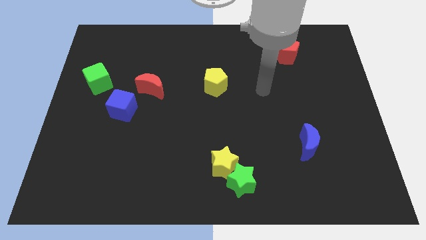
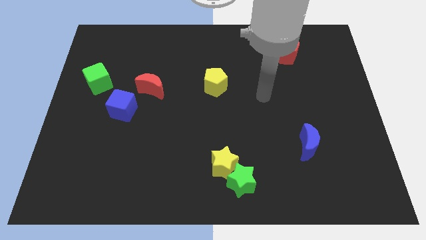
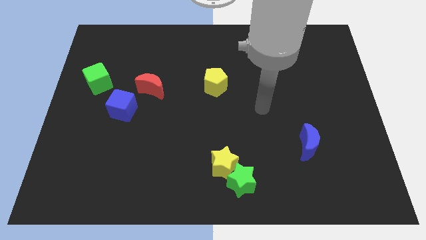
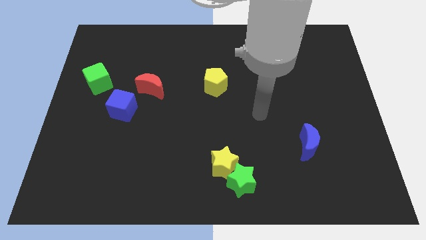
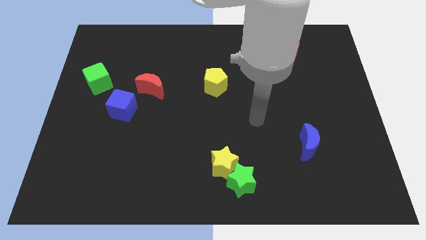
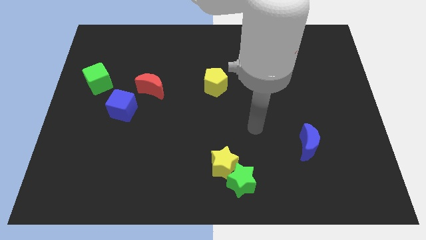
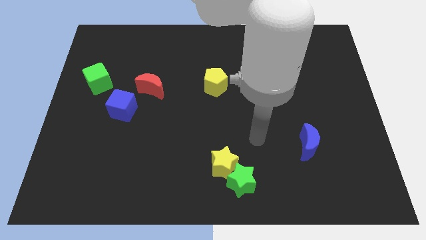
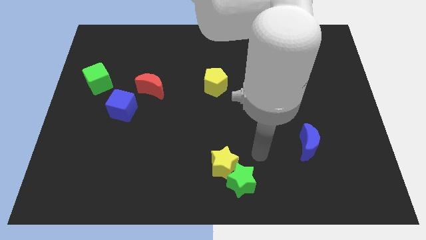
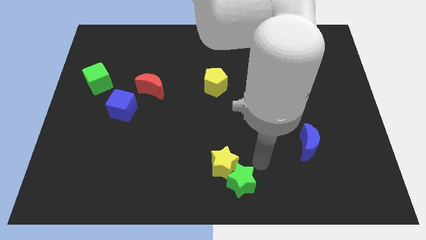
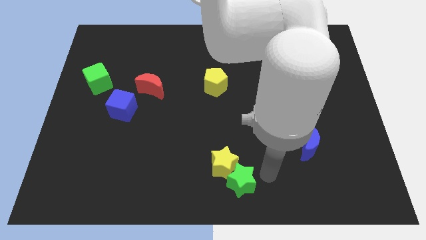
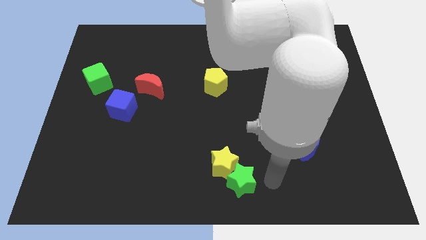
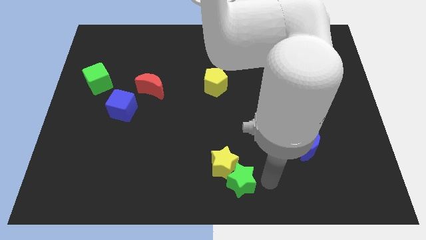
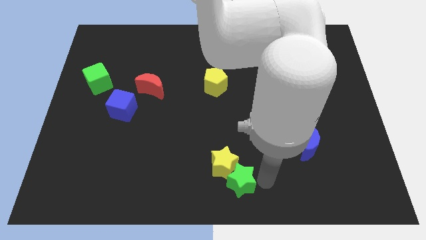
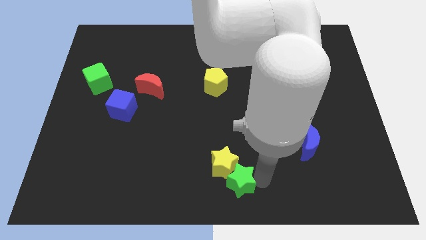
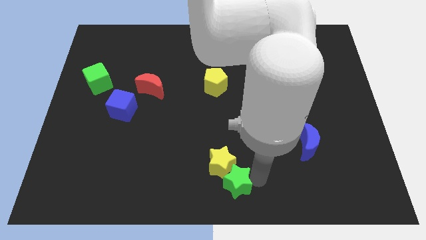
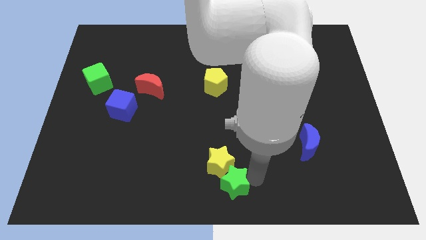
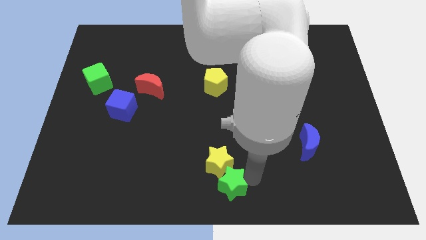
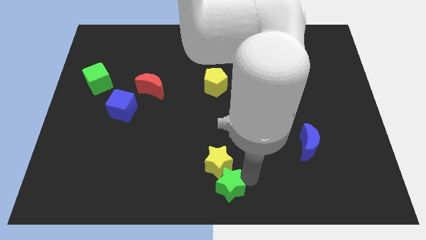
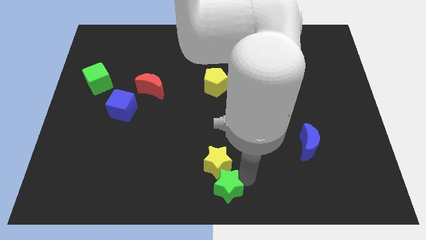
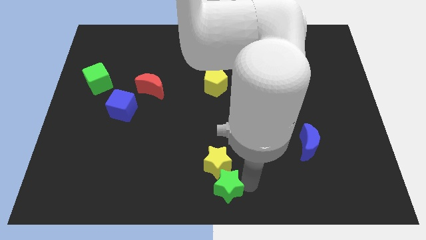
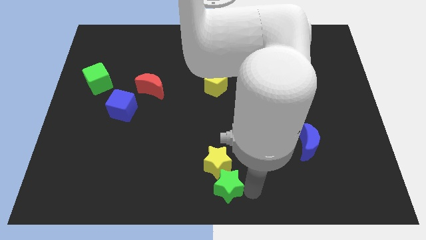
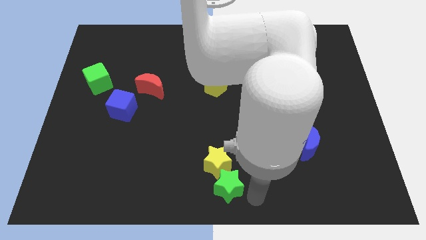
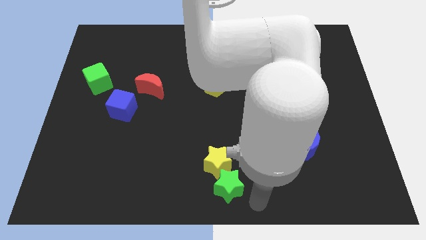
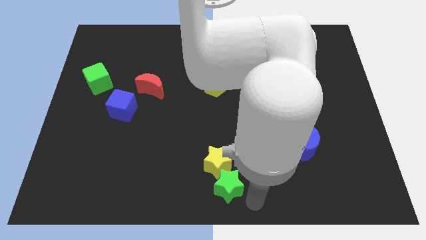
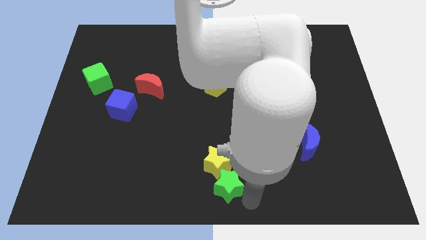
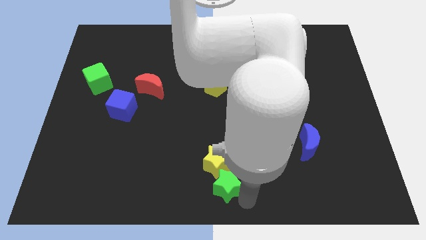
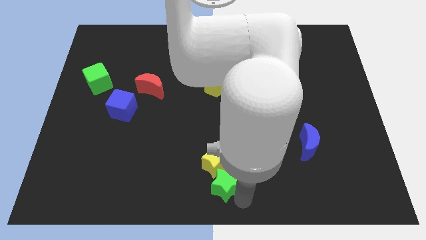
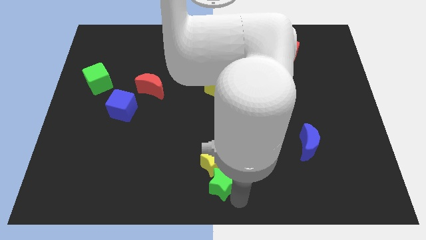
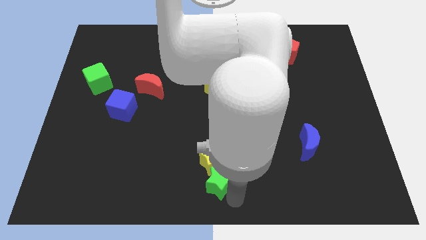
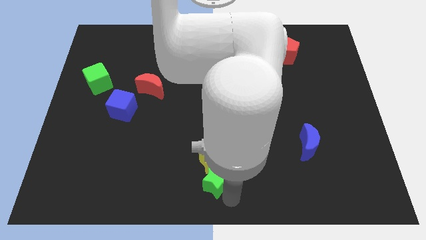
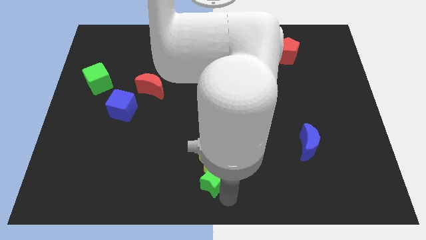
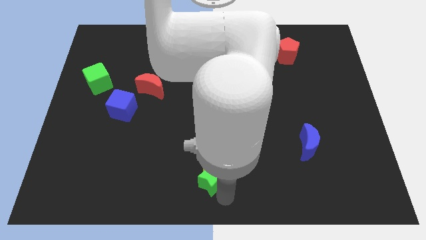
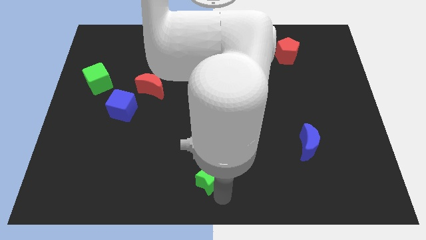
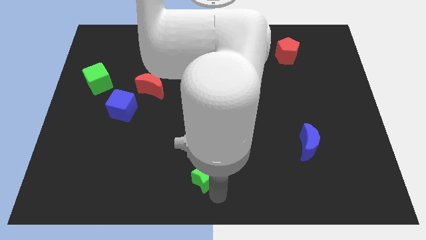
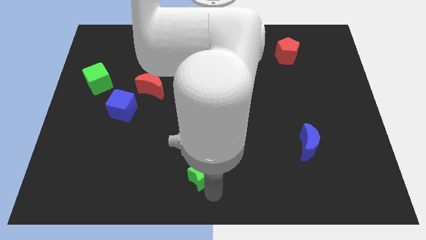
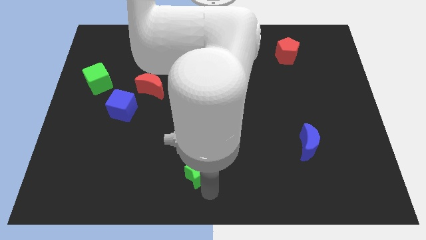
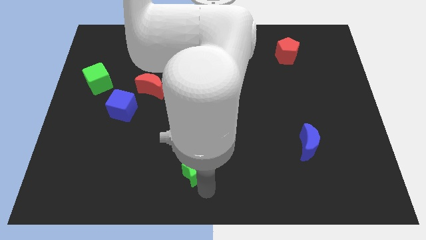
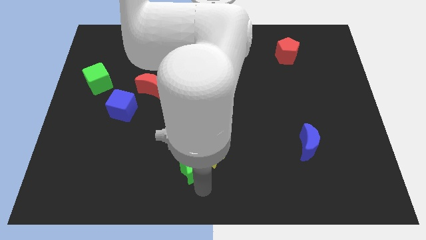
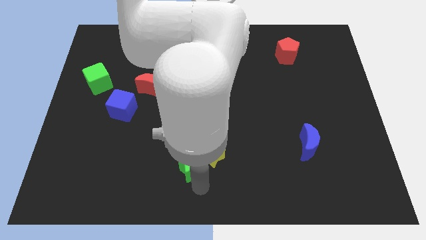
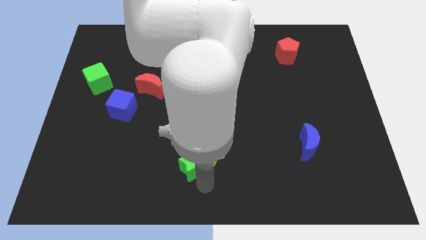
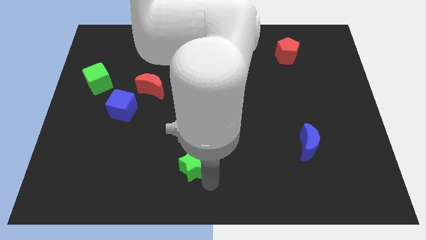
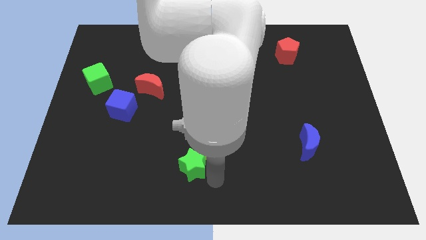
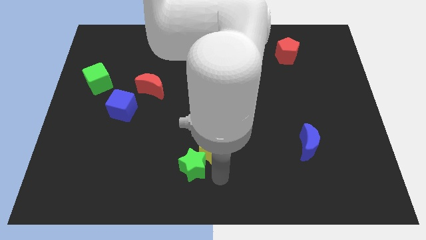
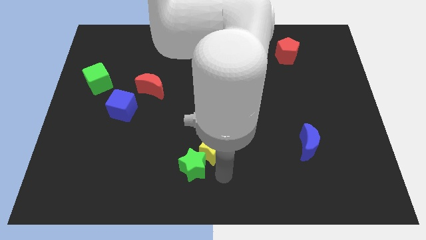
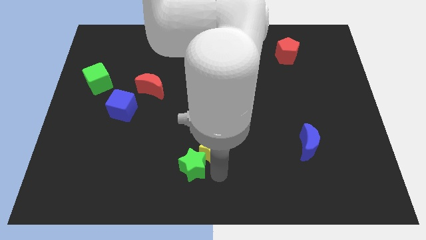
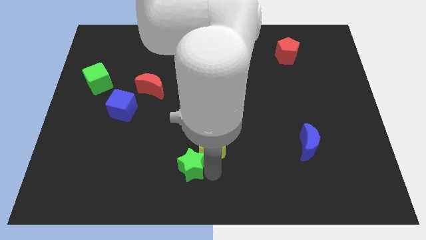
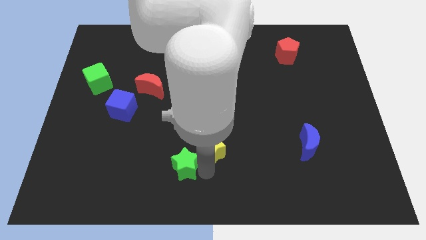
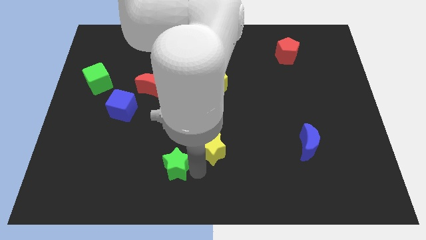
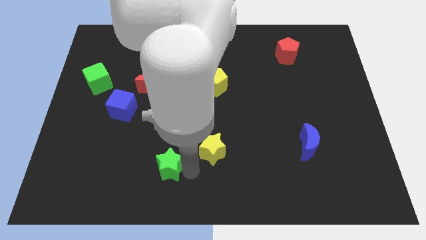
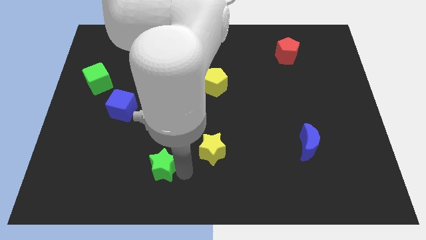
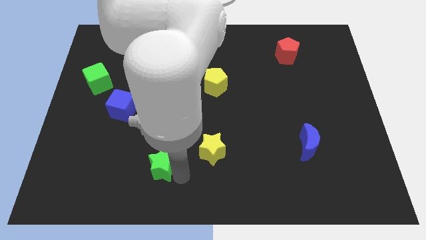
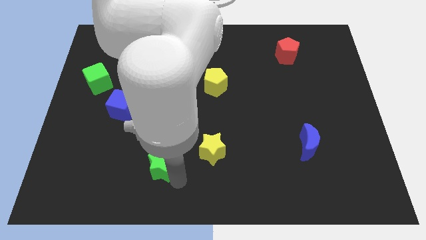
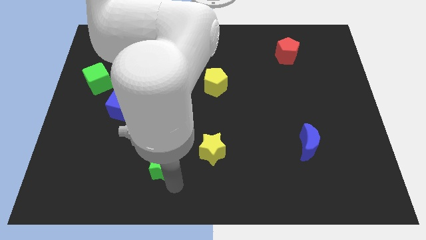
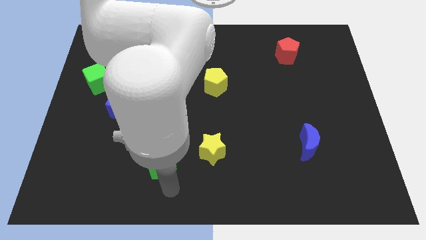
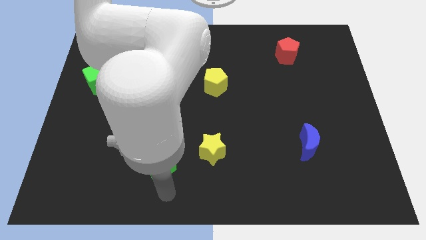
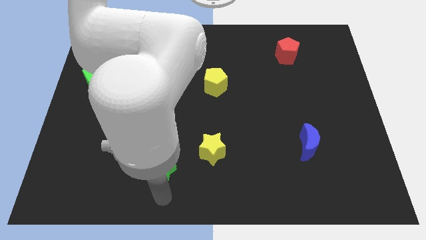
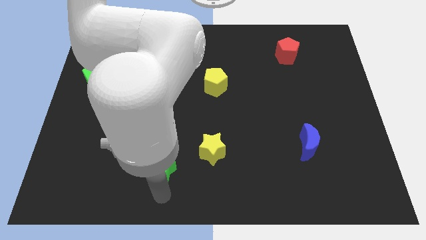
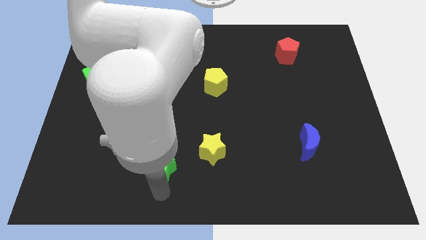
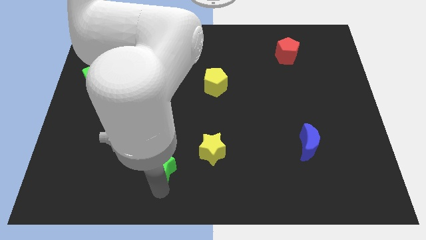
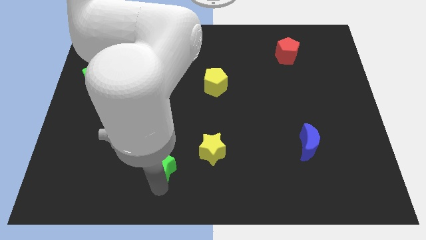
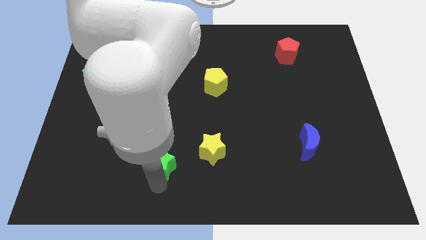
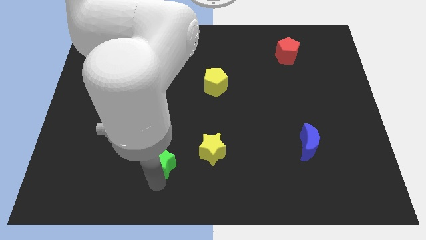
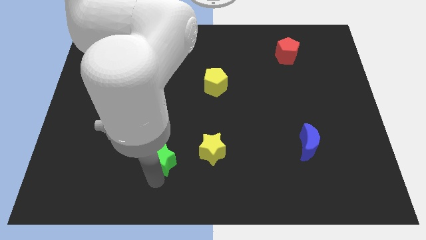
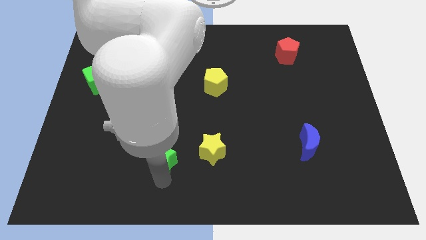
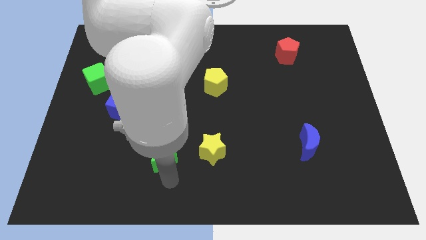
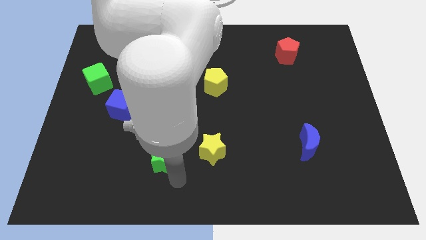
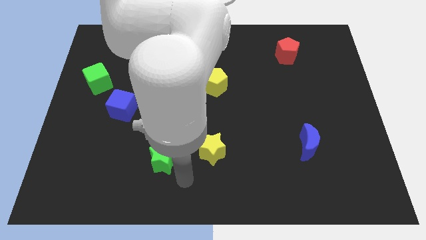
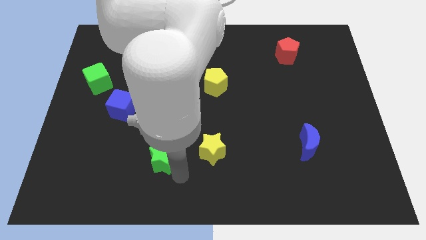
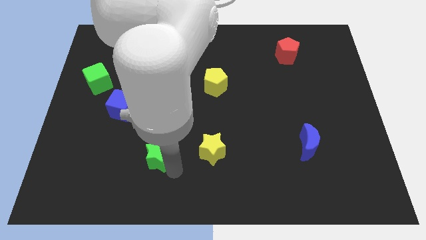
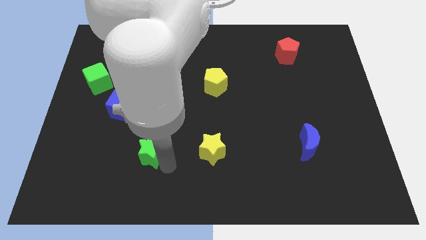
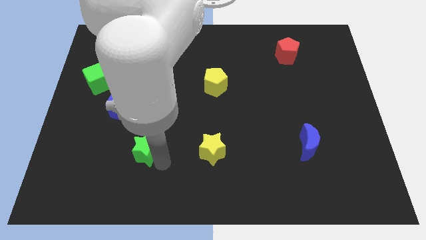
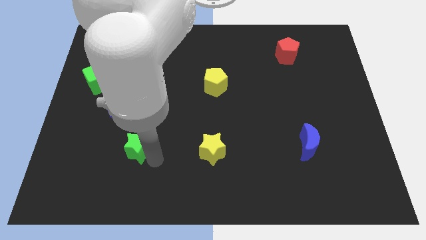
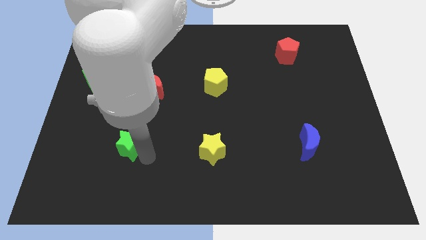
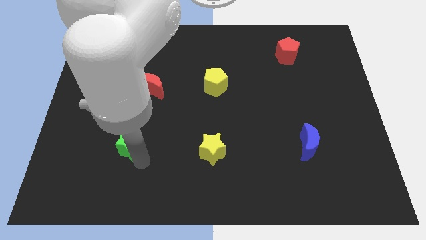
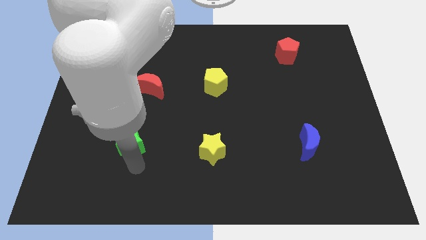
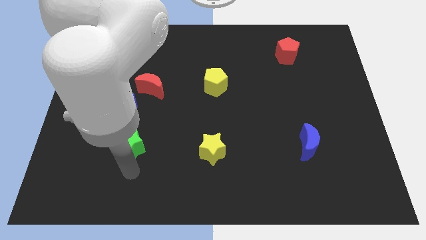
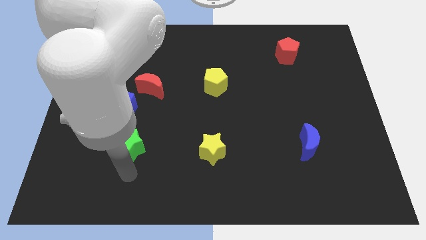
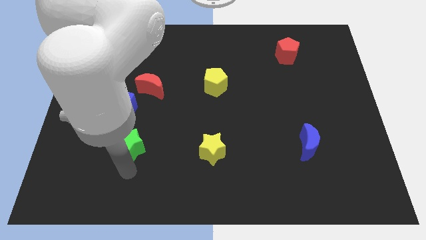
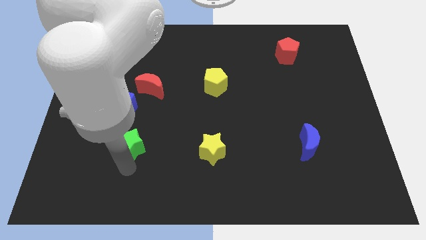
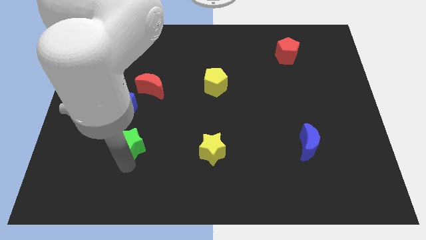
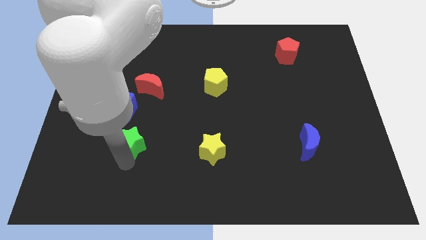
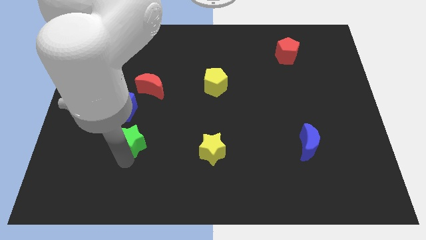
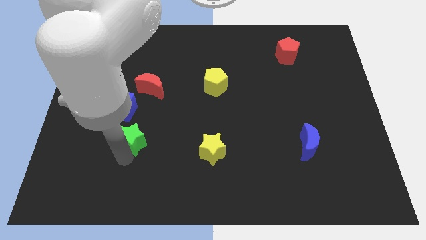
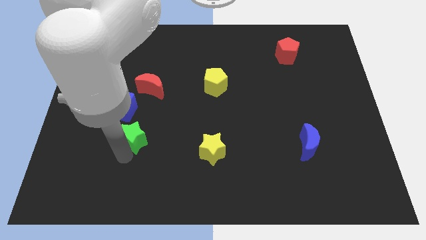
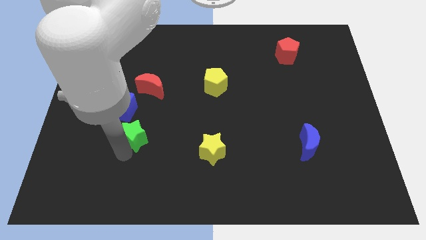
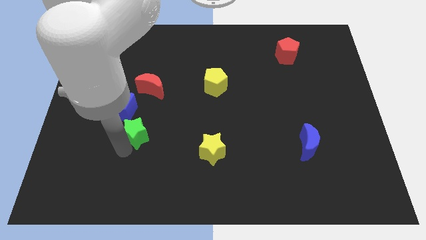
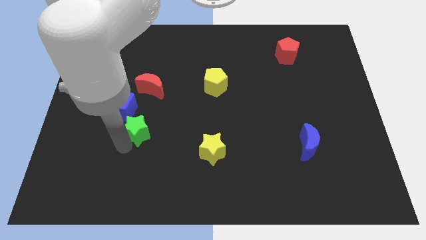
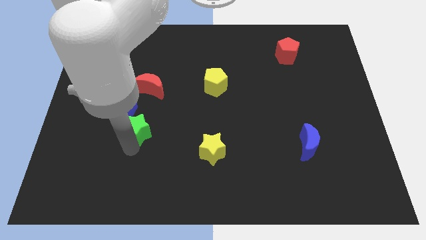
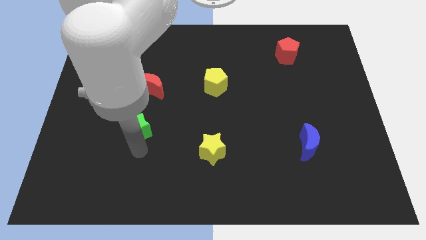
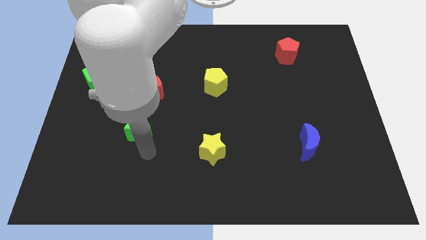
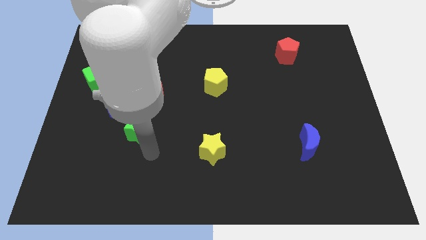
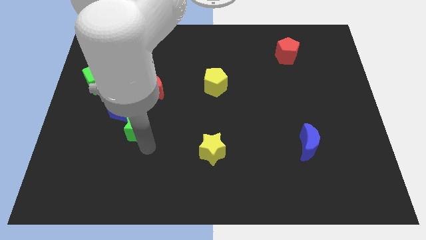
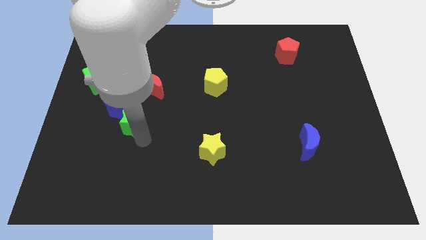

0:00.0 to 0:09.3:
put the green star to the blue cube
